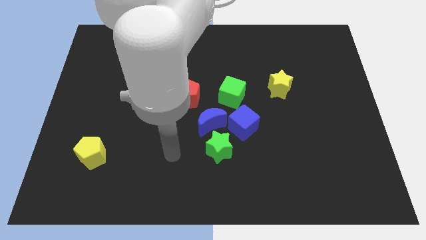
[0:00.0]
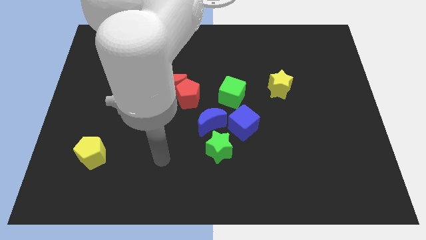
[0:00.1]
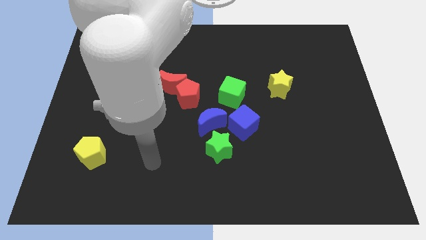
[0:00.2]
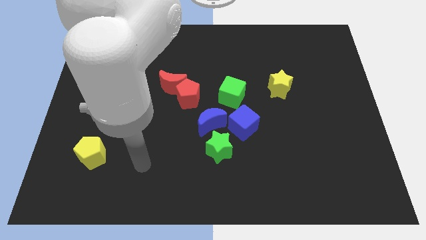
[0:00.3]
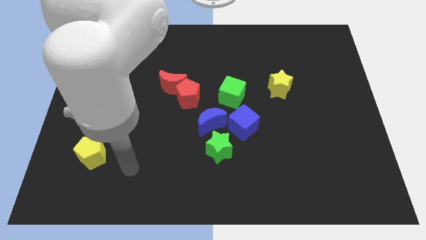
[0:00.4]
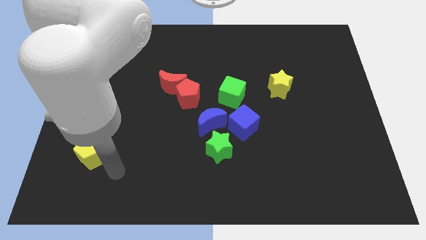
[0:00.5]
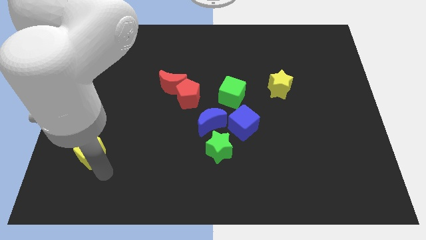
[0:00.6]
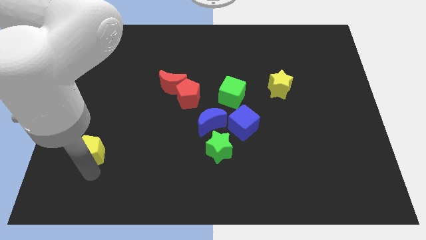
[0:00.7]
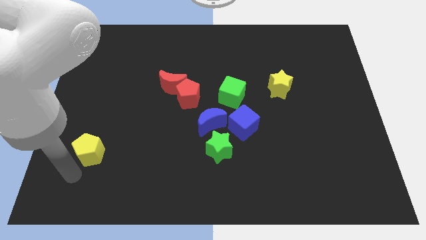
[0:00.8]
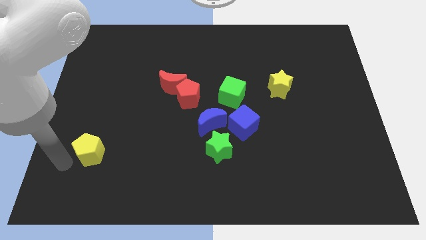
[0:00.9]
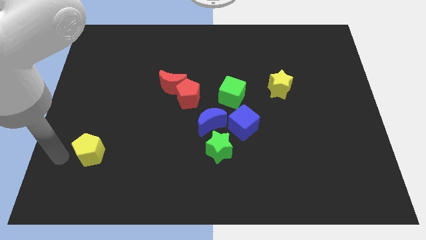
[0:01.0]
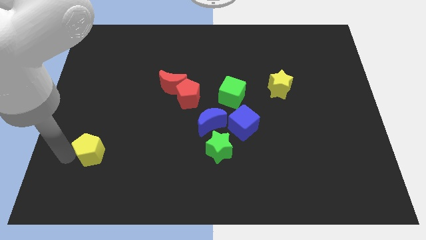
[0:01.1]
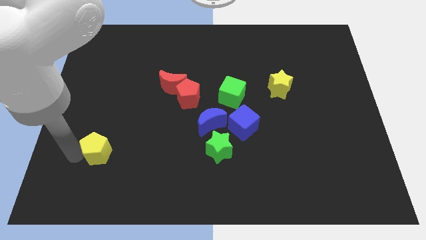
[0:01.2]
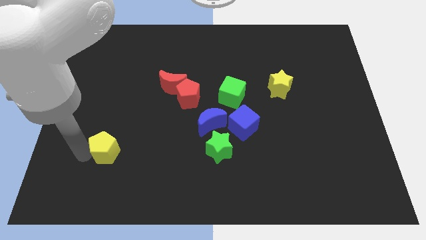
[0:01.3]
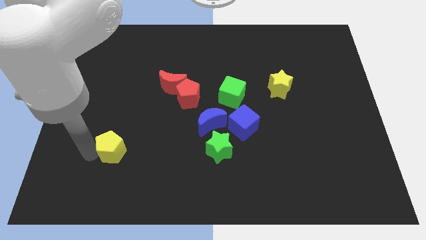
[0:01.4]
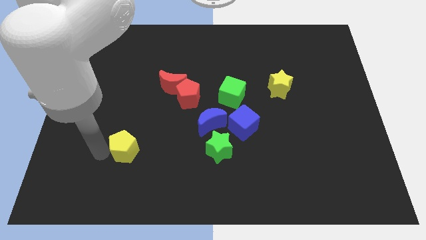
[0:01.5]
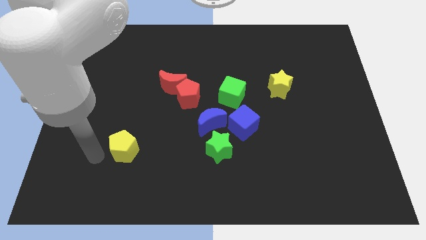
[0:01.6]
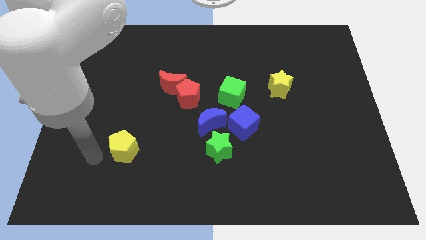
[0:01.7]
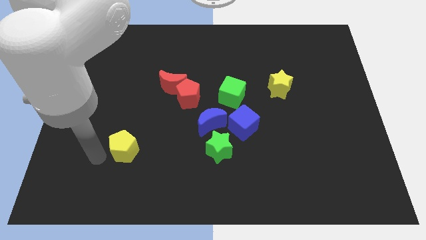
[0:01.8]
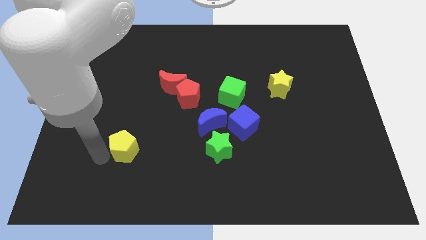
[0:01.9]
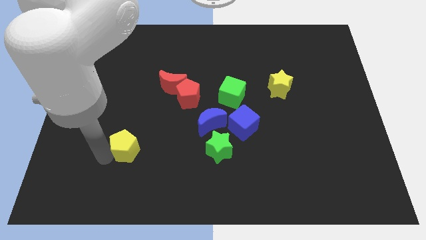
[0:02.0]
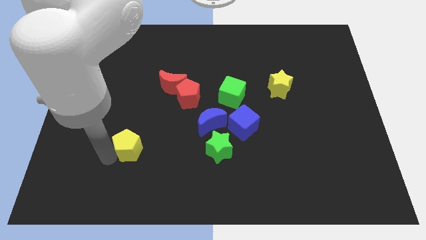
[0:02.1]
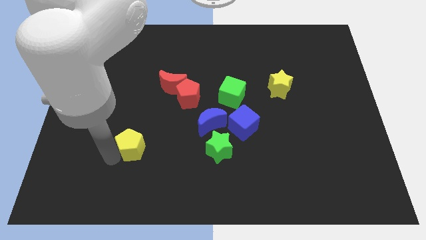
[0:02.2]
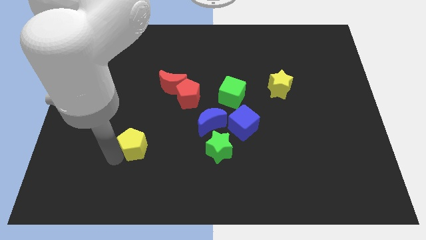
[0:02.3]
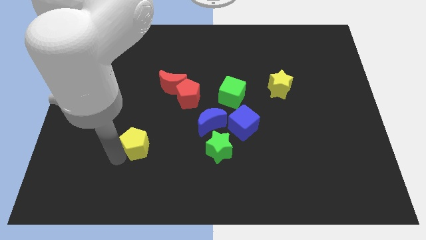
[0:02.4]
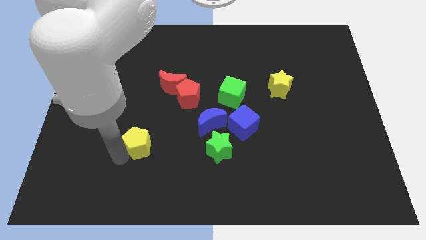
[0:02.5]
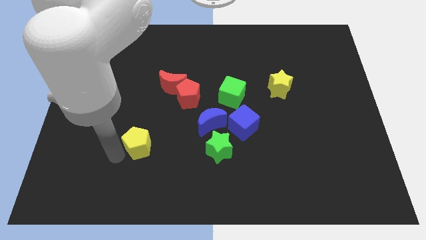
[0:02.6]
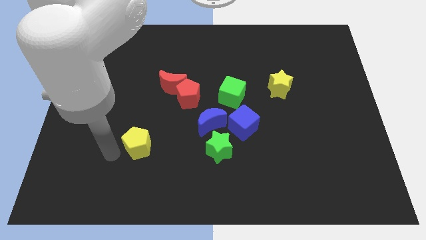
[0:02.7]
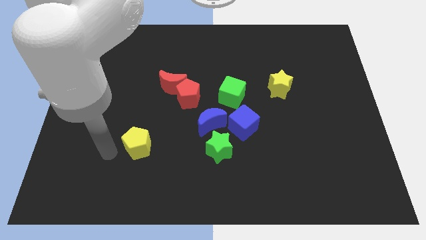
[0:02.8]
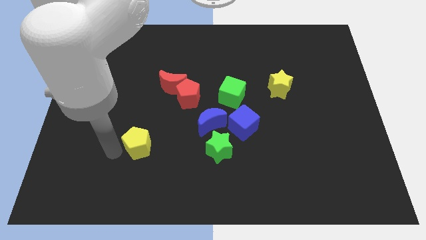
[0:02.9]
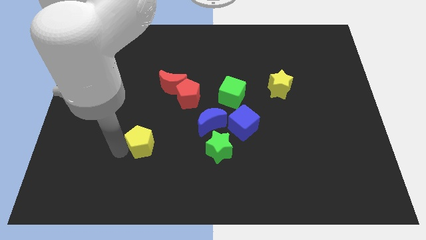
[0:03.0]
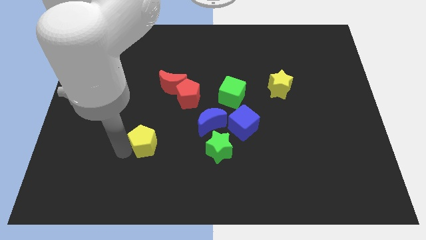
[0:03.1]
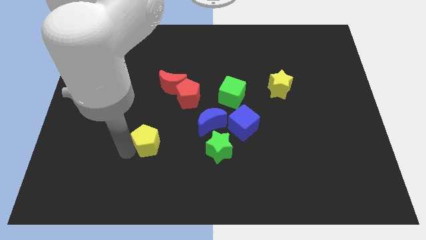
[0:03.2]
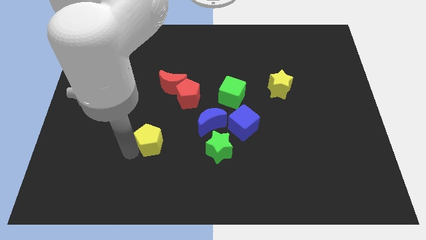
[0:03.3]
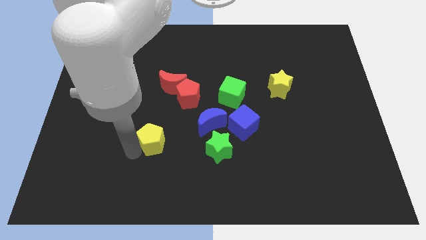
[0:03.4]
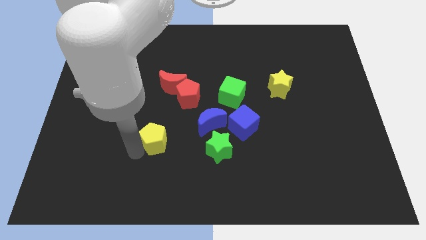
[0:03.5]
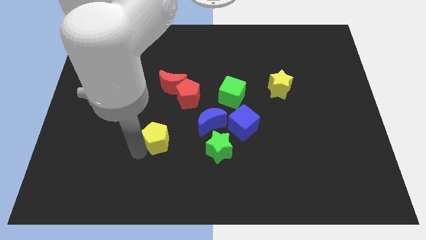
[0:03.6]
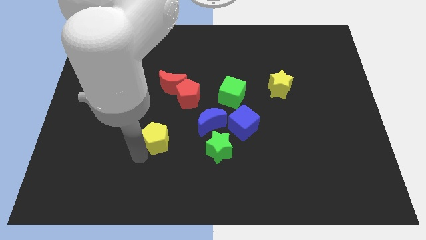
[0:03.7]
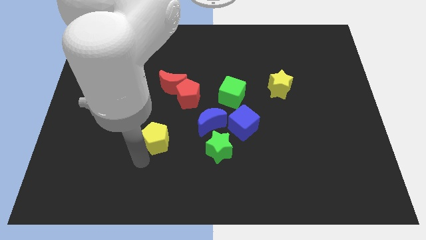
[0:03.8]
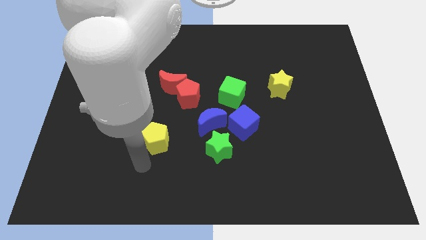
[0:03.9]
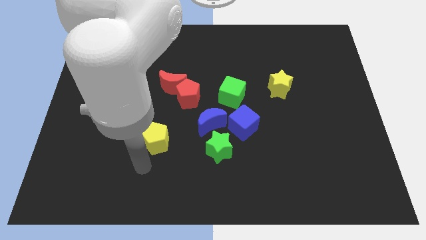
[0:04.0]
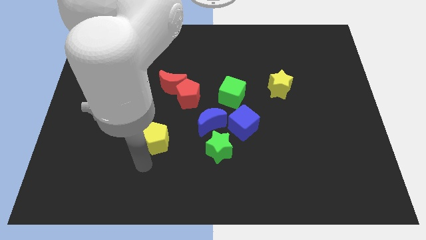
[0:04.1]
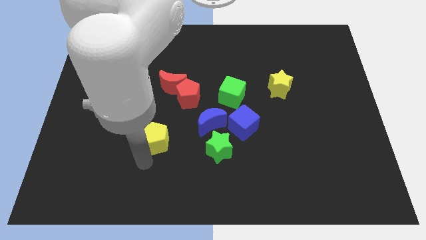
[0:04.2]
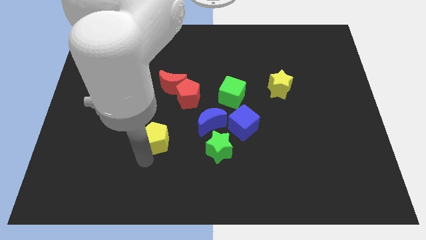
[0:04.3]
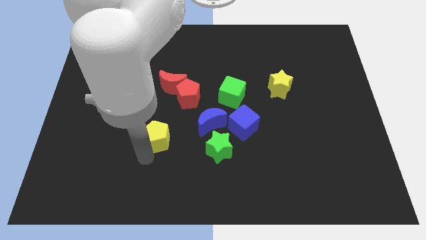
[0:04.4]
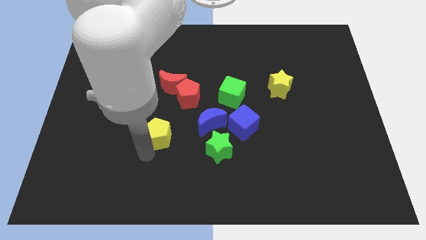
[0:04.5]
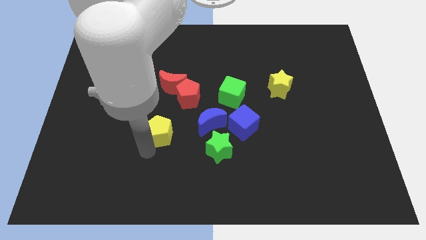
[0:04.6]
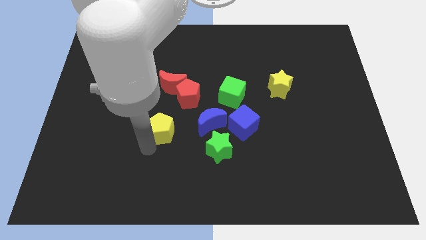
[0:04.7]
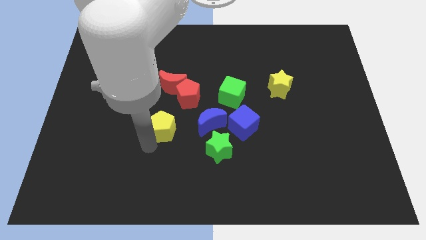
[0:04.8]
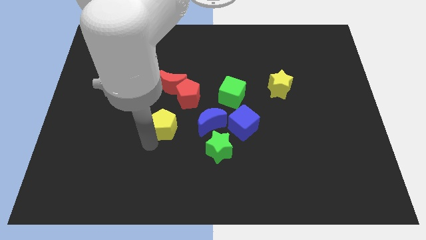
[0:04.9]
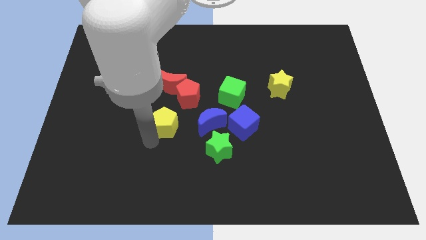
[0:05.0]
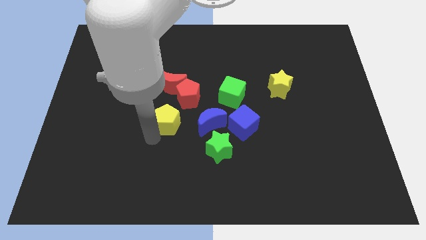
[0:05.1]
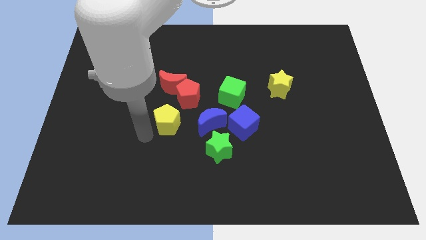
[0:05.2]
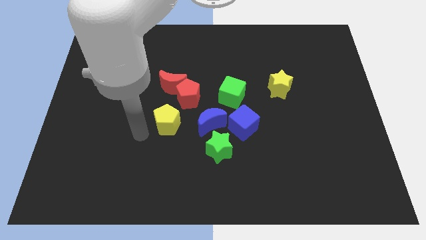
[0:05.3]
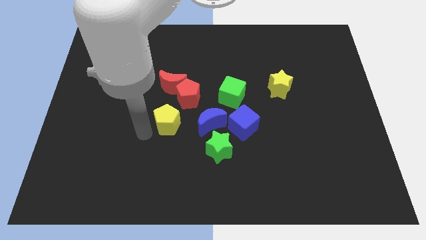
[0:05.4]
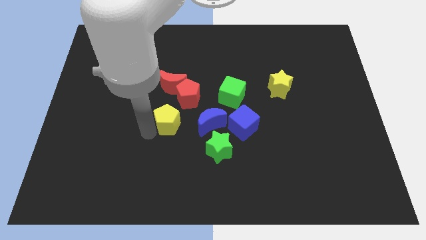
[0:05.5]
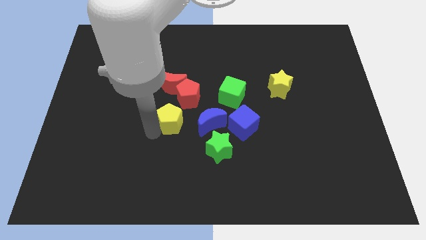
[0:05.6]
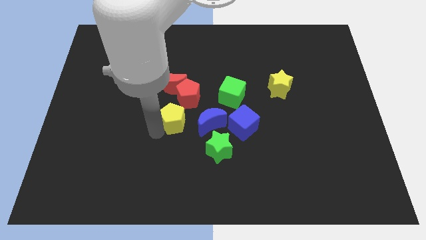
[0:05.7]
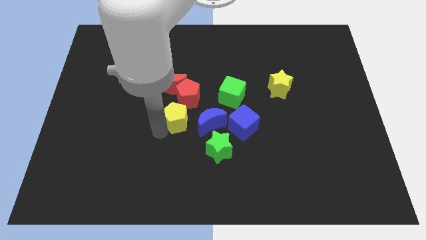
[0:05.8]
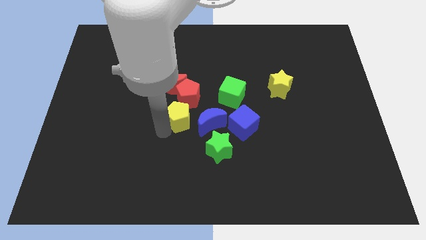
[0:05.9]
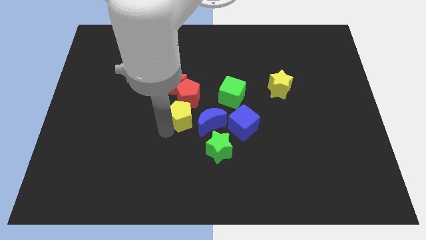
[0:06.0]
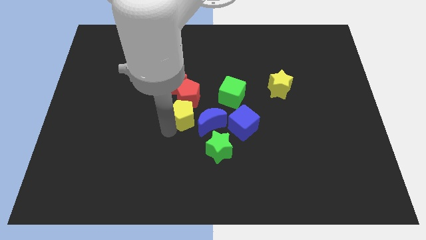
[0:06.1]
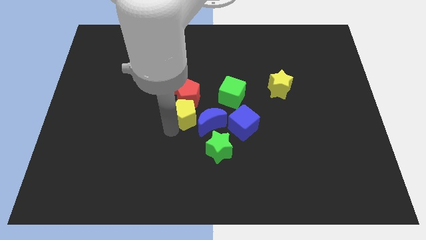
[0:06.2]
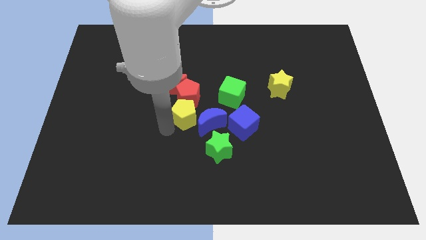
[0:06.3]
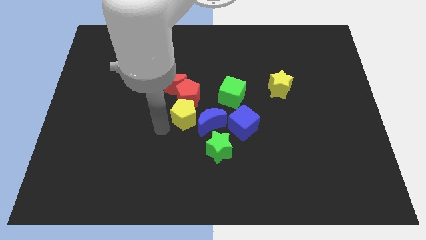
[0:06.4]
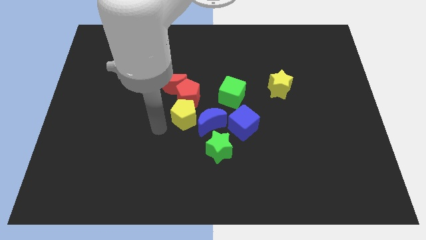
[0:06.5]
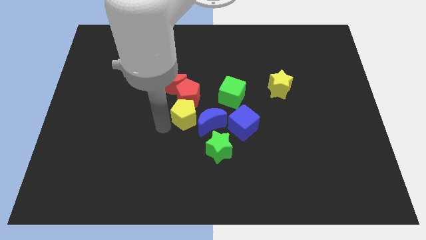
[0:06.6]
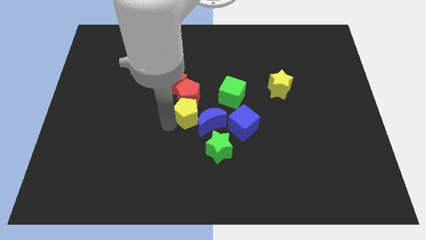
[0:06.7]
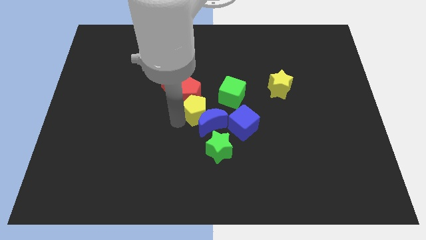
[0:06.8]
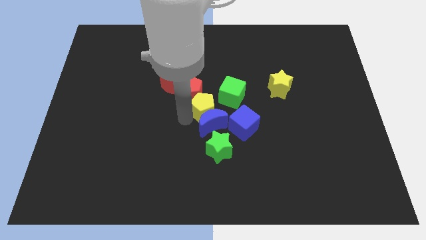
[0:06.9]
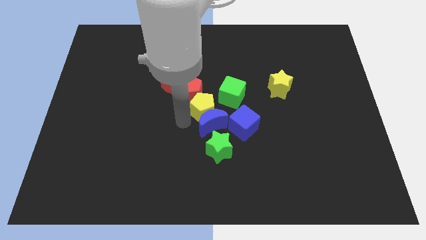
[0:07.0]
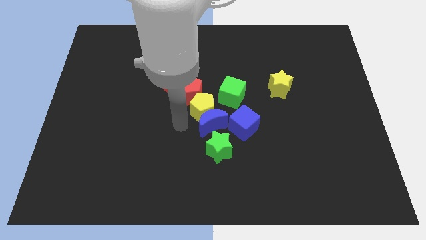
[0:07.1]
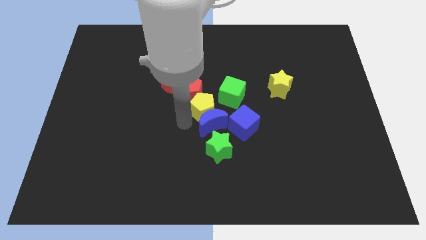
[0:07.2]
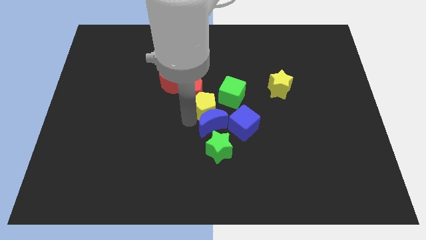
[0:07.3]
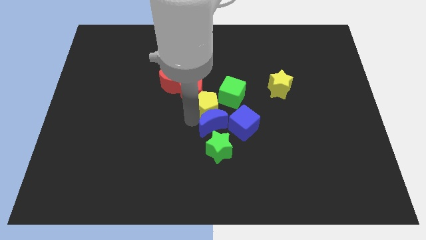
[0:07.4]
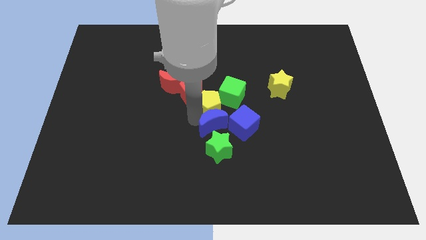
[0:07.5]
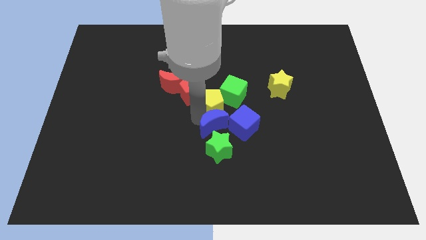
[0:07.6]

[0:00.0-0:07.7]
move the yellow pentagon next to the green cube
